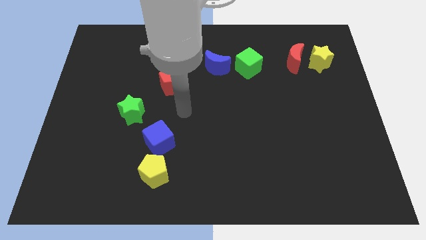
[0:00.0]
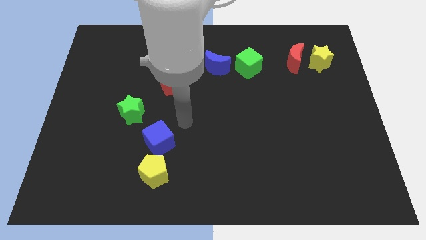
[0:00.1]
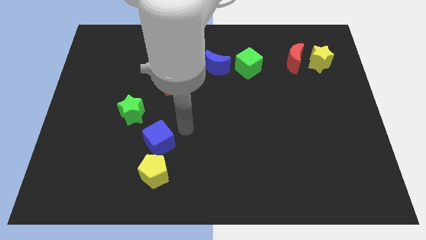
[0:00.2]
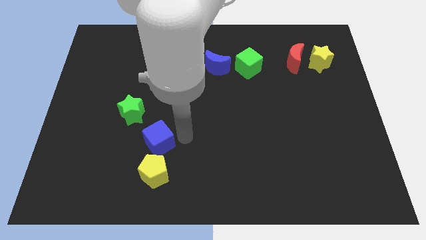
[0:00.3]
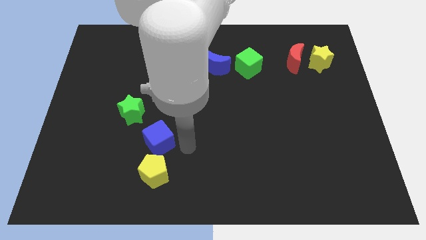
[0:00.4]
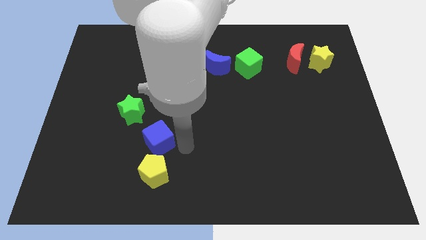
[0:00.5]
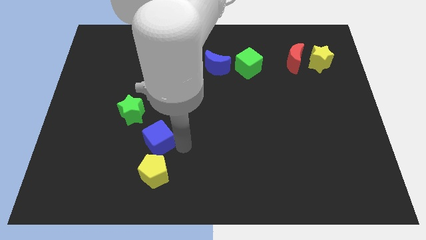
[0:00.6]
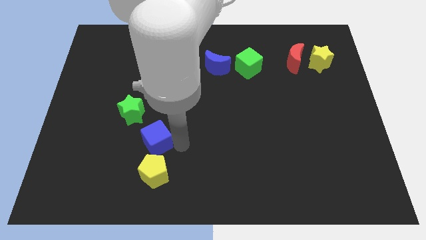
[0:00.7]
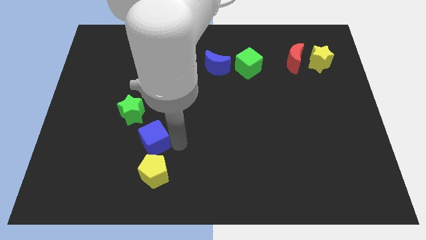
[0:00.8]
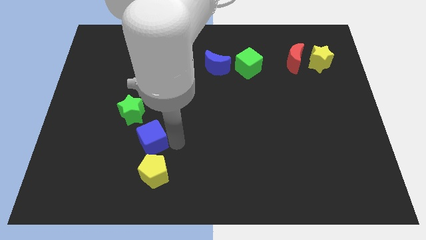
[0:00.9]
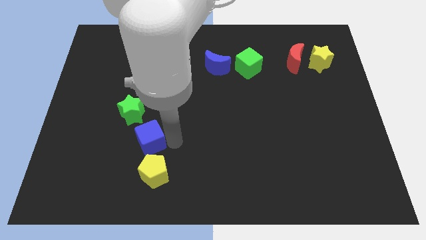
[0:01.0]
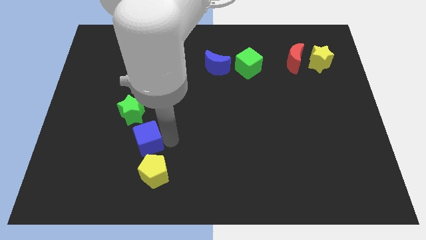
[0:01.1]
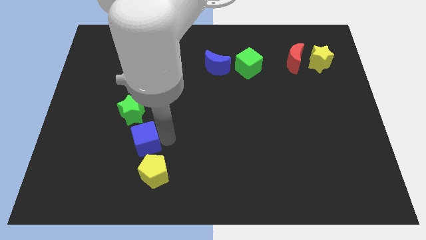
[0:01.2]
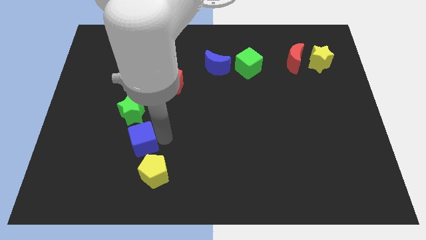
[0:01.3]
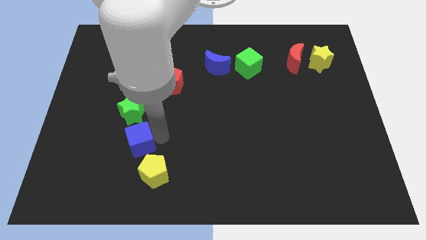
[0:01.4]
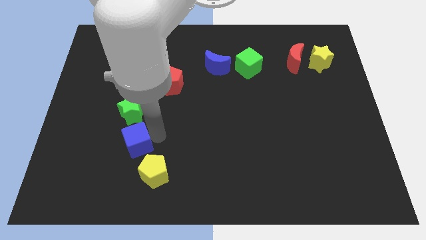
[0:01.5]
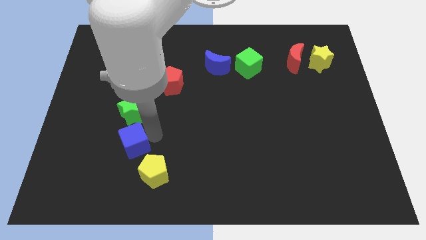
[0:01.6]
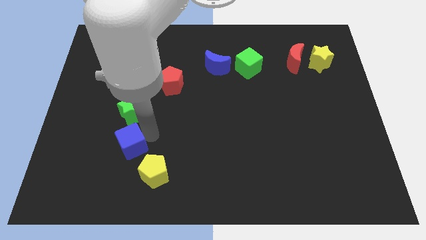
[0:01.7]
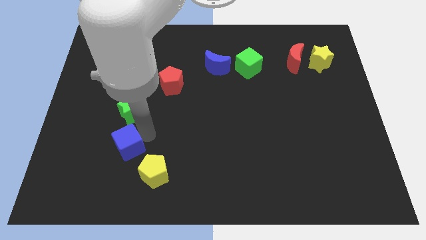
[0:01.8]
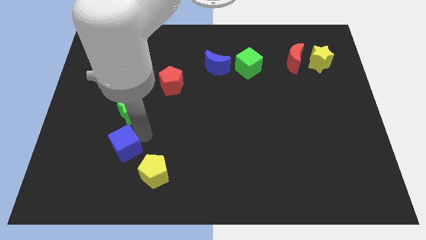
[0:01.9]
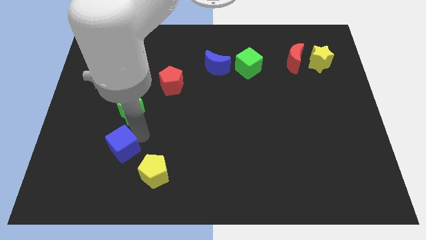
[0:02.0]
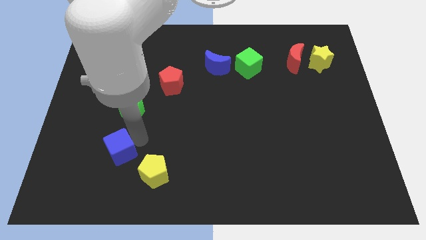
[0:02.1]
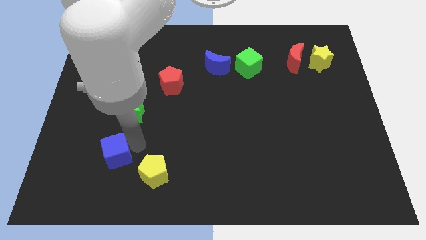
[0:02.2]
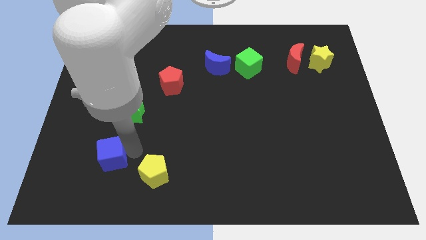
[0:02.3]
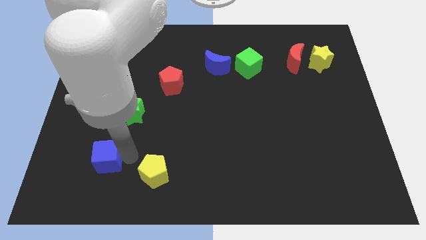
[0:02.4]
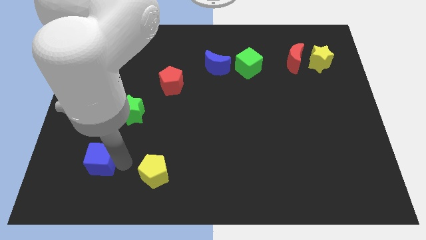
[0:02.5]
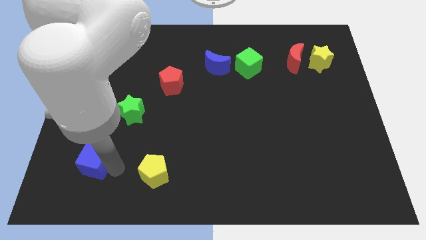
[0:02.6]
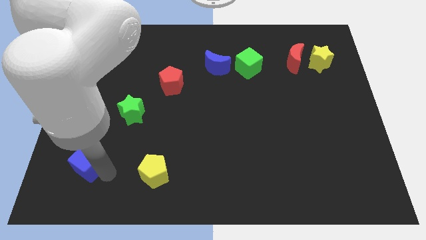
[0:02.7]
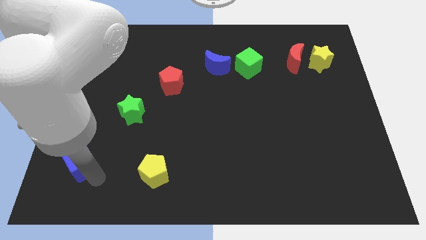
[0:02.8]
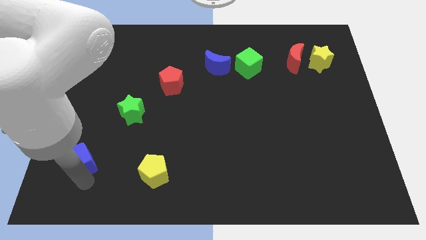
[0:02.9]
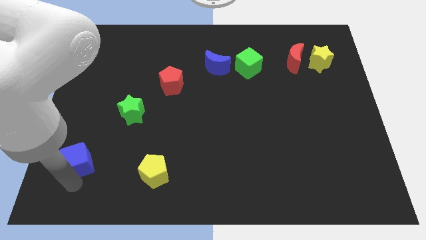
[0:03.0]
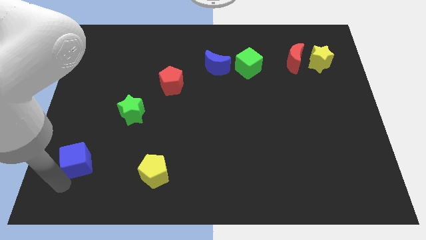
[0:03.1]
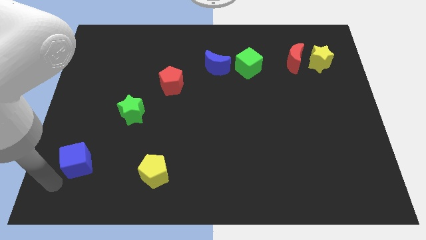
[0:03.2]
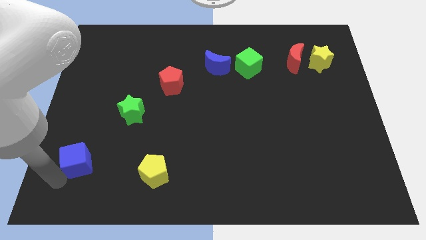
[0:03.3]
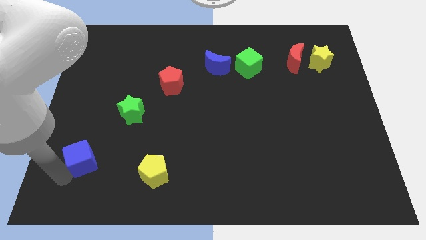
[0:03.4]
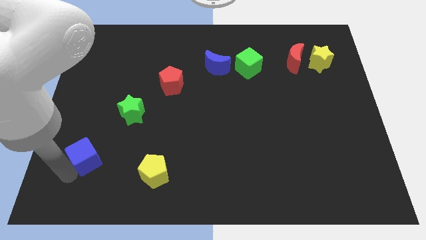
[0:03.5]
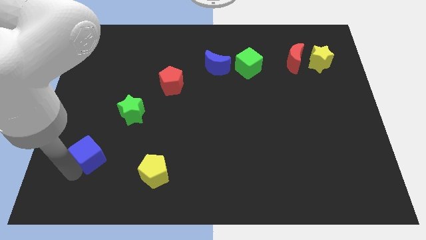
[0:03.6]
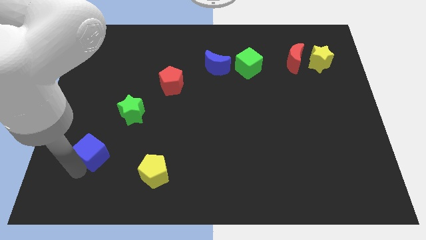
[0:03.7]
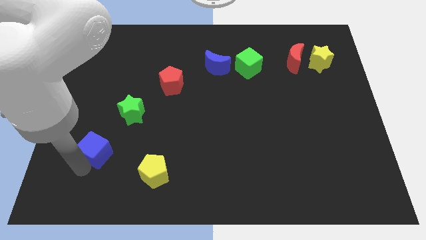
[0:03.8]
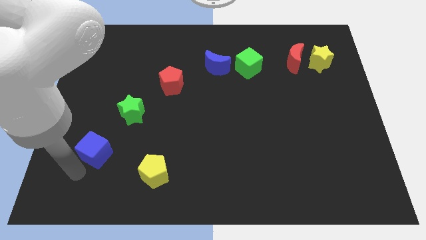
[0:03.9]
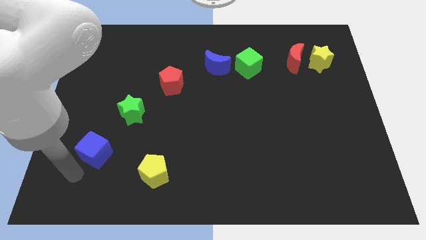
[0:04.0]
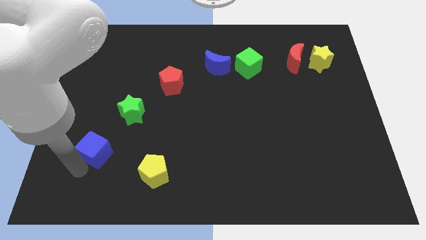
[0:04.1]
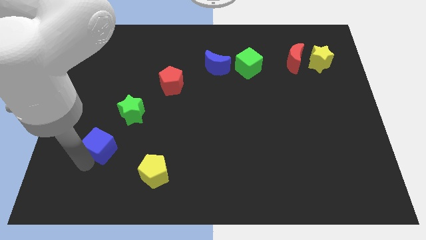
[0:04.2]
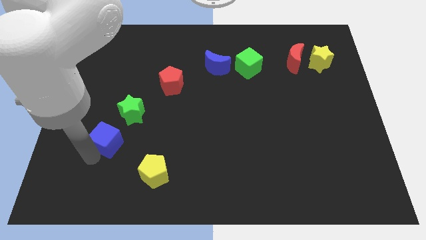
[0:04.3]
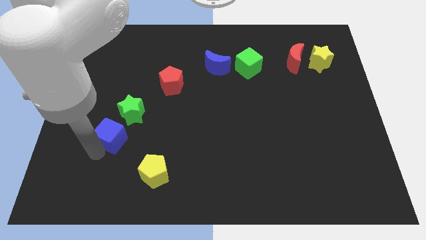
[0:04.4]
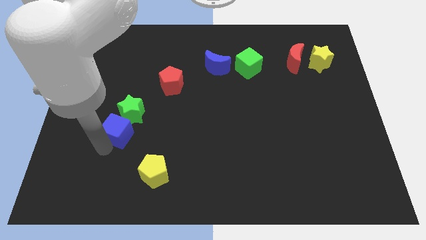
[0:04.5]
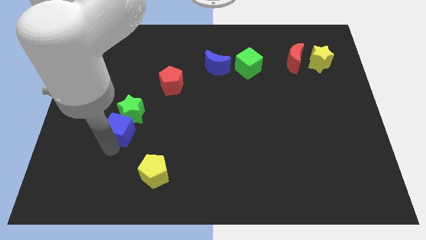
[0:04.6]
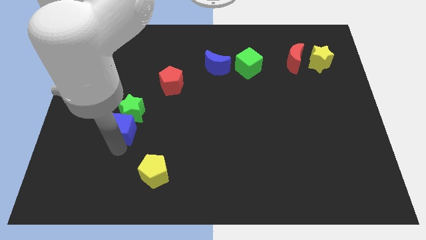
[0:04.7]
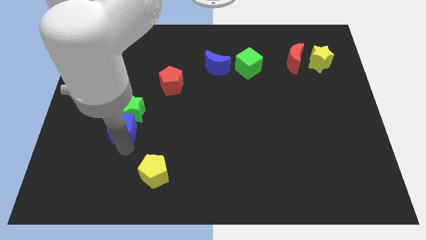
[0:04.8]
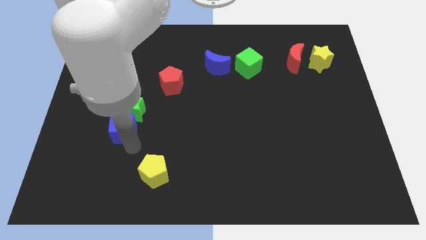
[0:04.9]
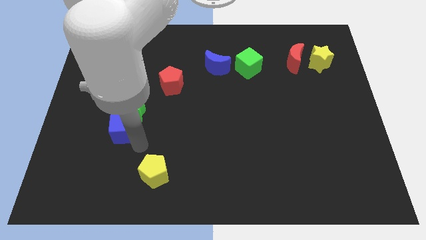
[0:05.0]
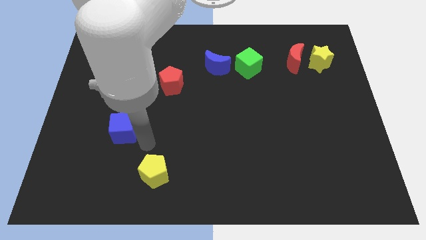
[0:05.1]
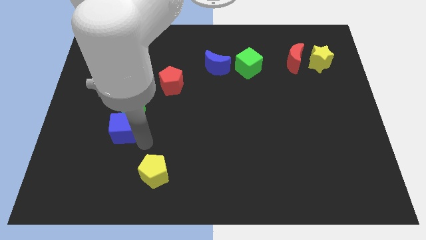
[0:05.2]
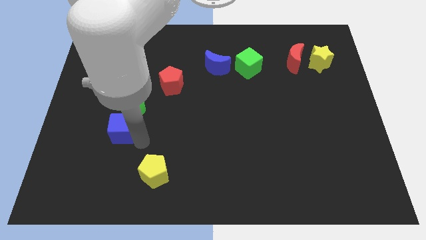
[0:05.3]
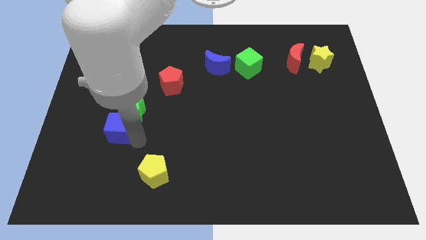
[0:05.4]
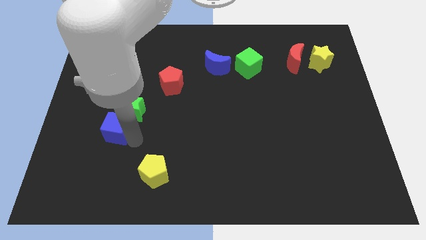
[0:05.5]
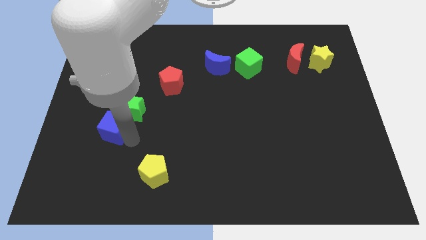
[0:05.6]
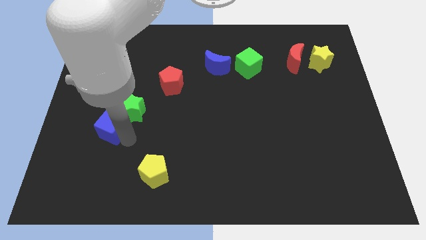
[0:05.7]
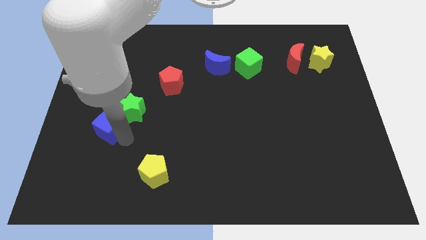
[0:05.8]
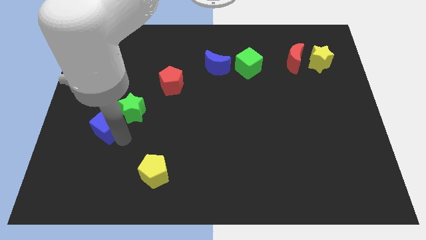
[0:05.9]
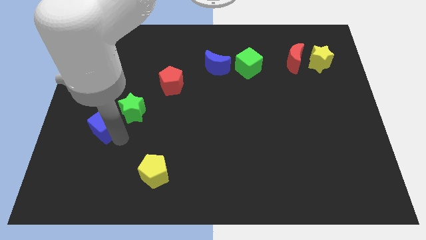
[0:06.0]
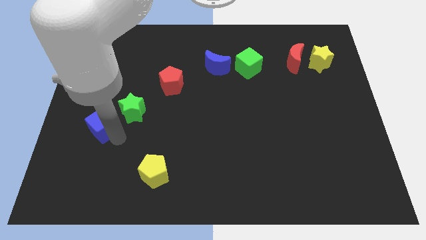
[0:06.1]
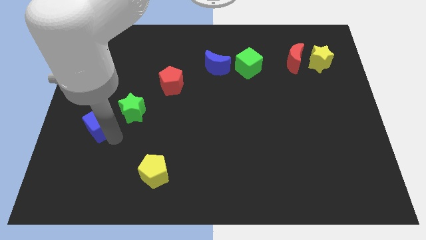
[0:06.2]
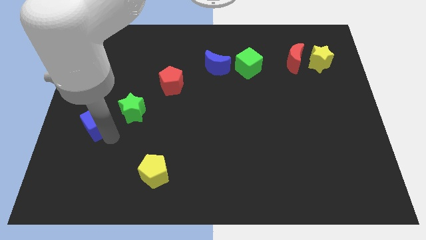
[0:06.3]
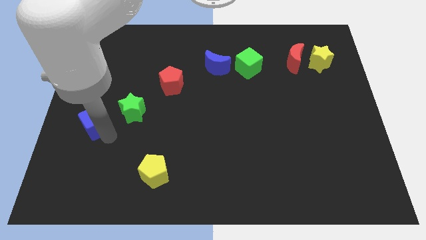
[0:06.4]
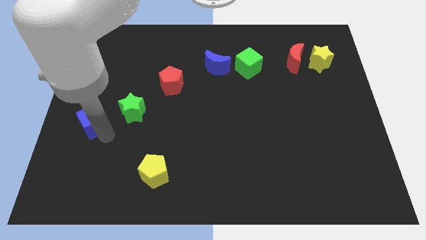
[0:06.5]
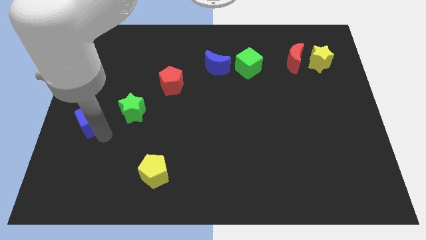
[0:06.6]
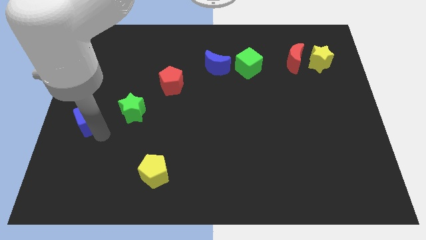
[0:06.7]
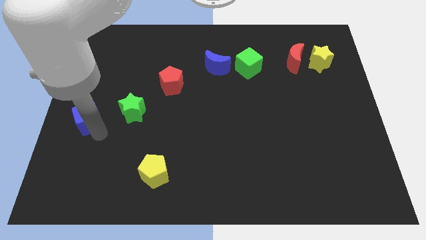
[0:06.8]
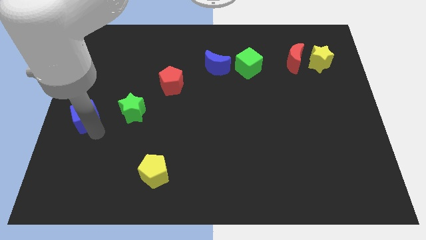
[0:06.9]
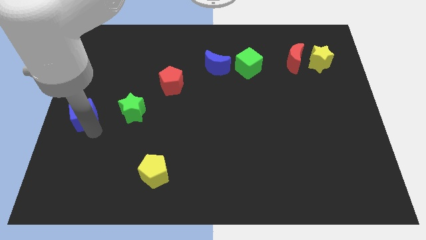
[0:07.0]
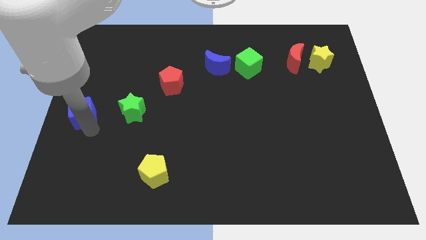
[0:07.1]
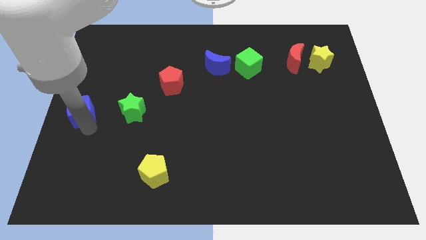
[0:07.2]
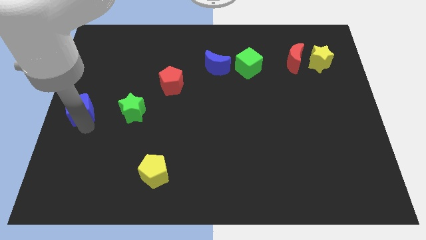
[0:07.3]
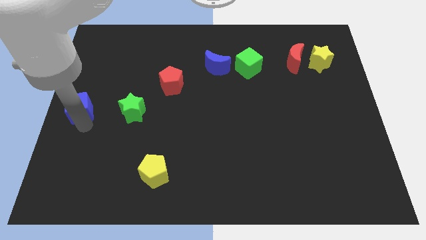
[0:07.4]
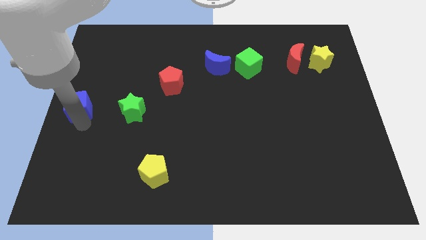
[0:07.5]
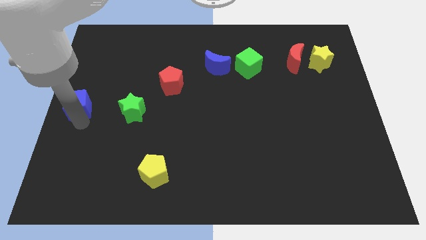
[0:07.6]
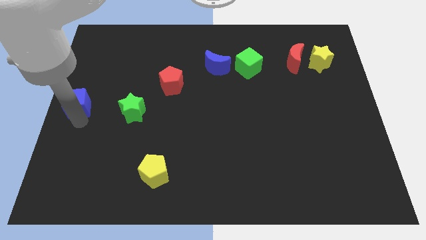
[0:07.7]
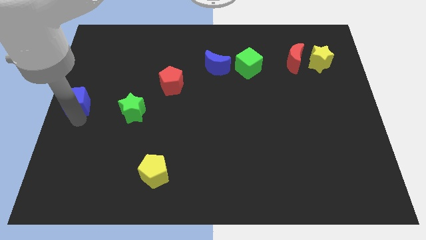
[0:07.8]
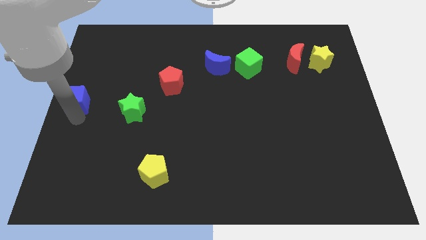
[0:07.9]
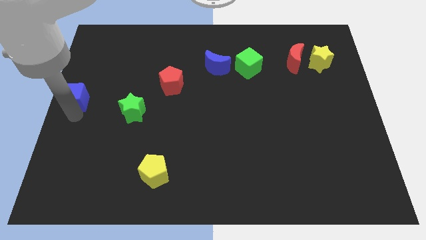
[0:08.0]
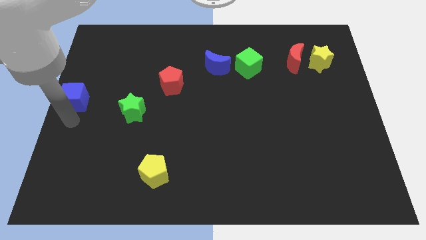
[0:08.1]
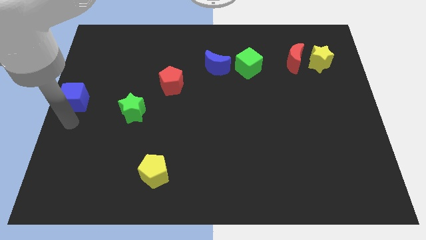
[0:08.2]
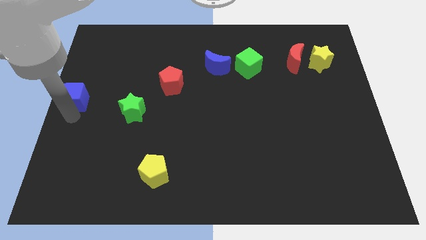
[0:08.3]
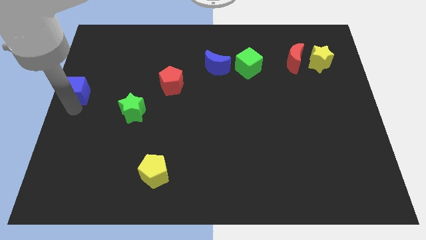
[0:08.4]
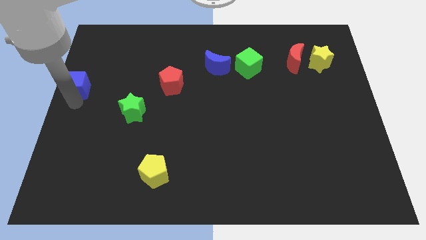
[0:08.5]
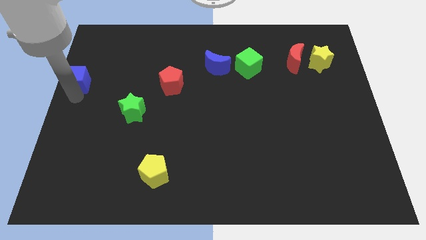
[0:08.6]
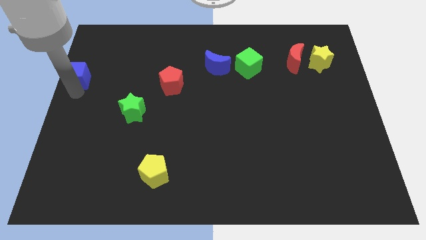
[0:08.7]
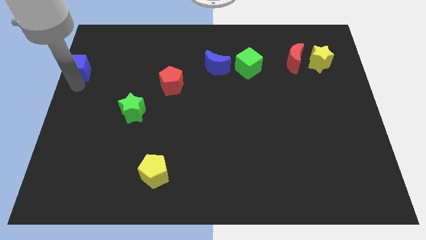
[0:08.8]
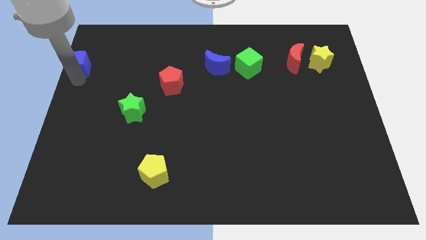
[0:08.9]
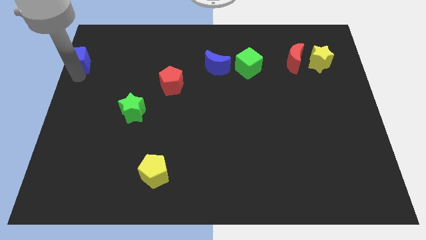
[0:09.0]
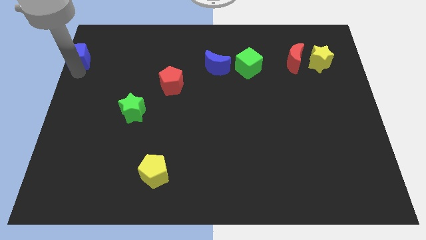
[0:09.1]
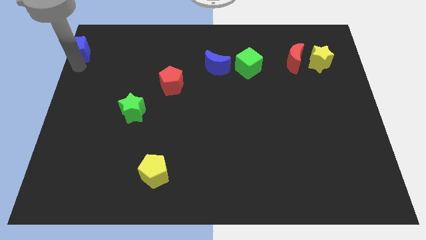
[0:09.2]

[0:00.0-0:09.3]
put the blue cube to the top left
